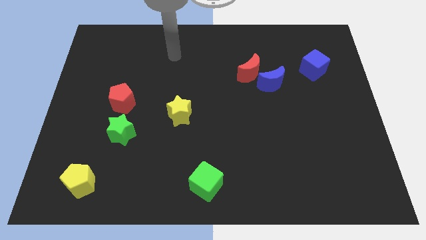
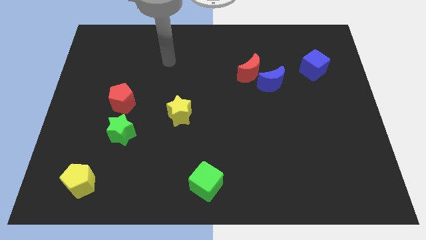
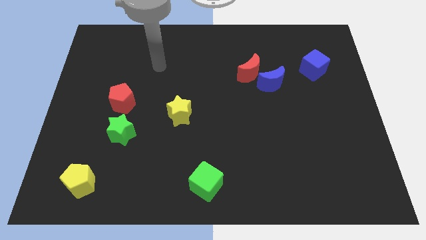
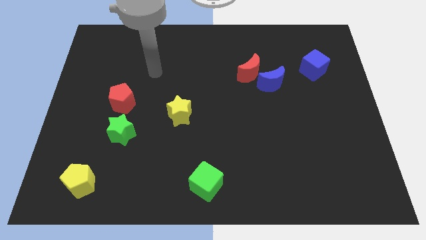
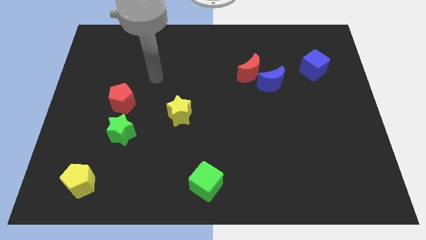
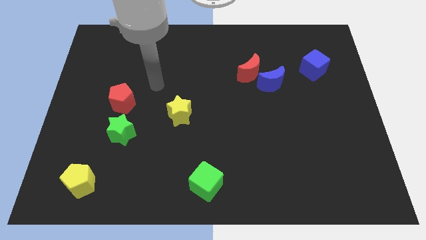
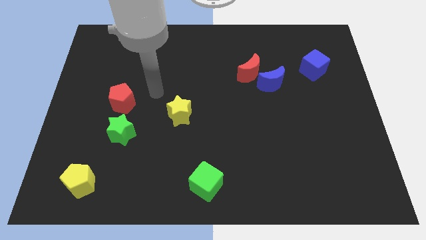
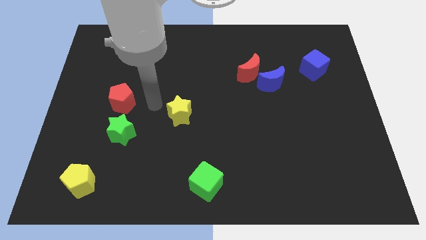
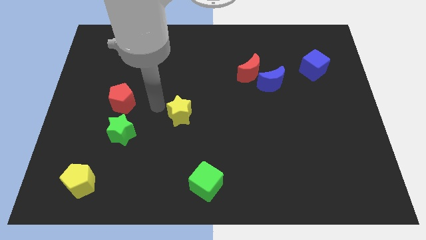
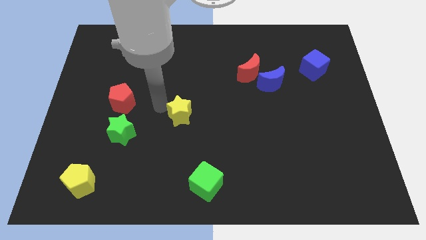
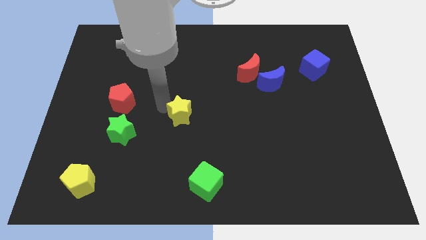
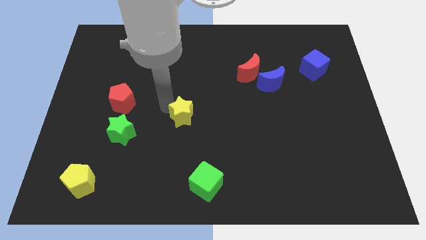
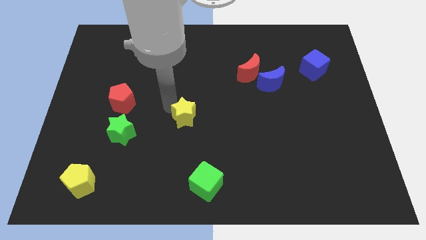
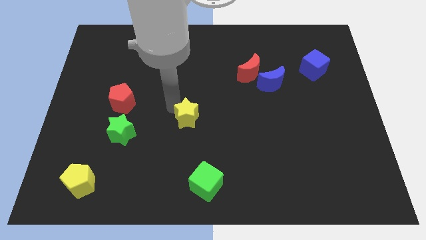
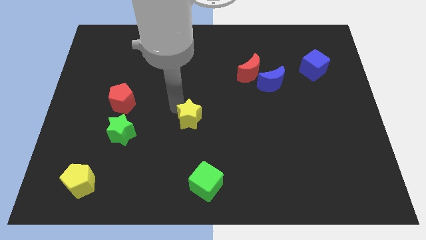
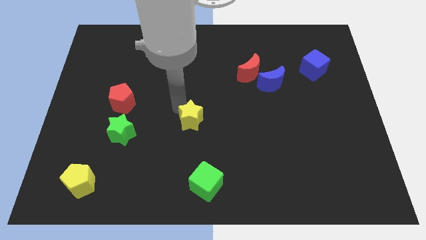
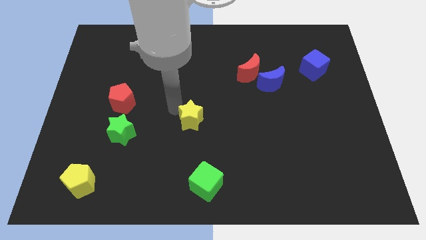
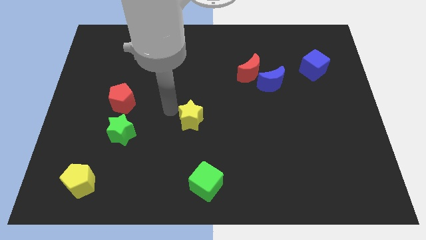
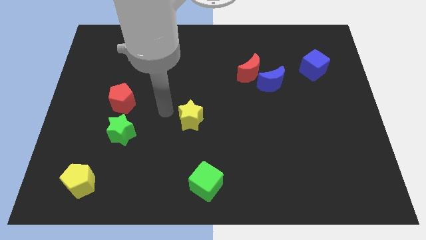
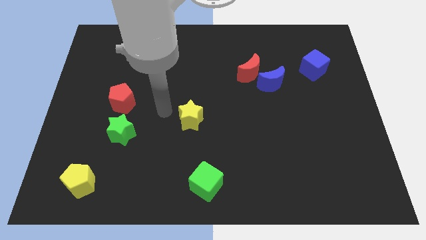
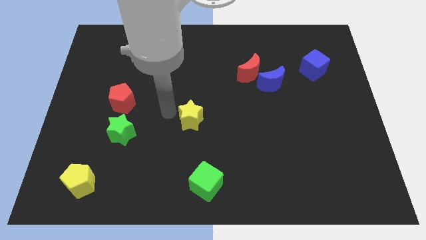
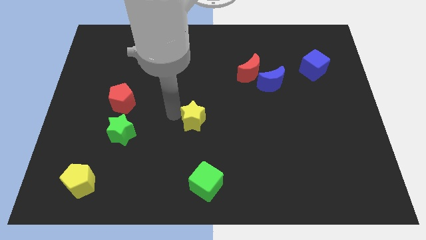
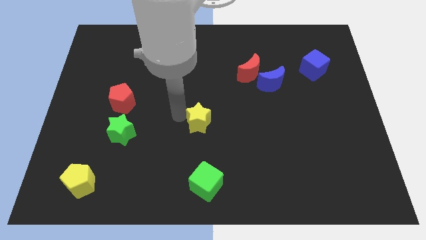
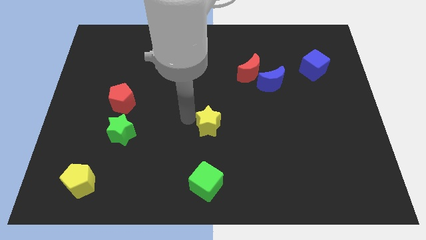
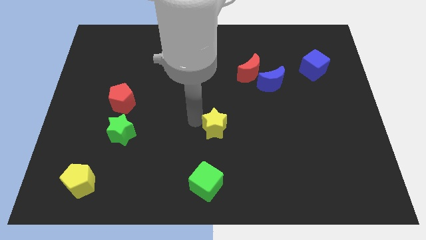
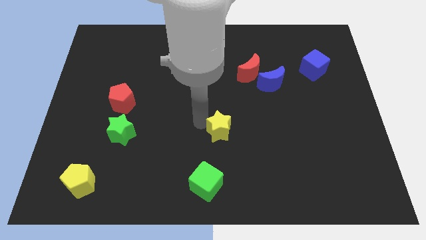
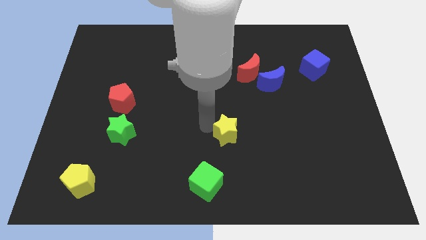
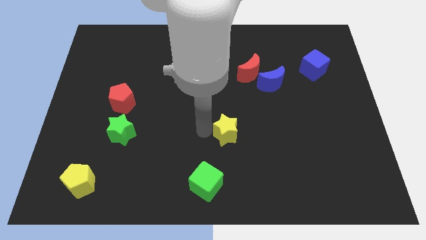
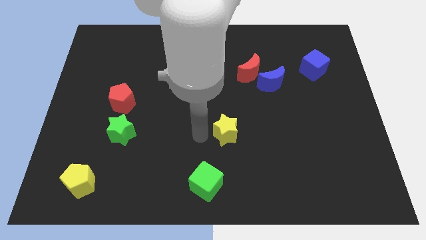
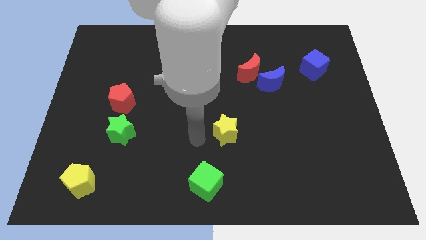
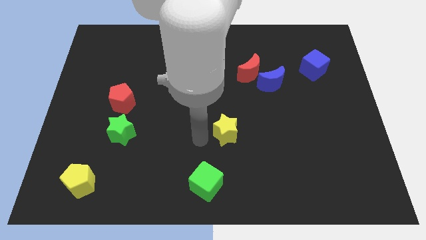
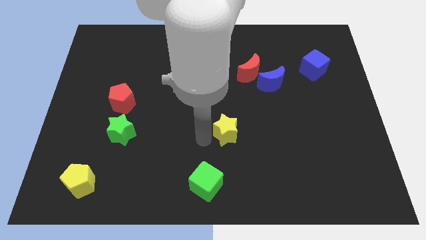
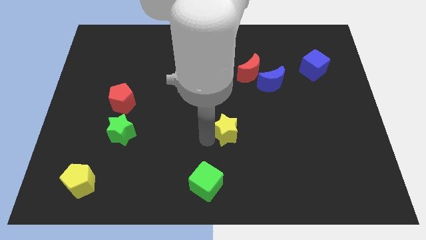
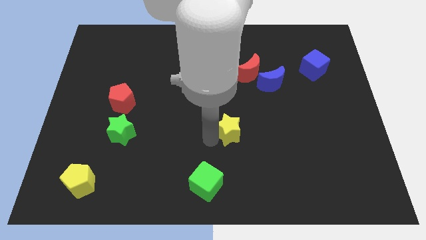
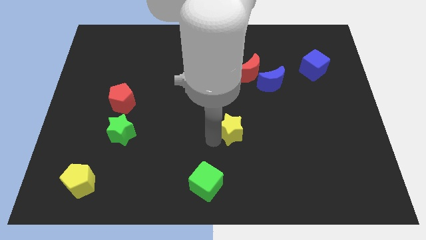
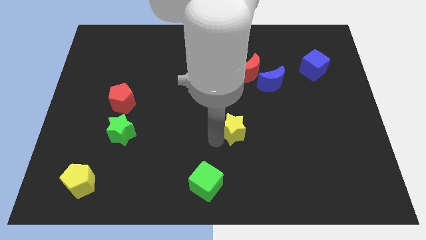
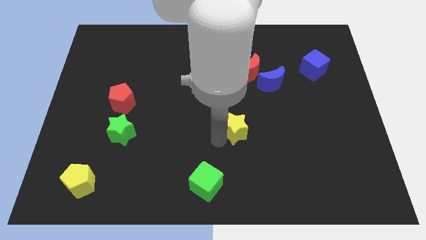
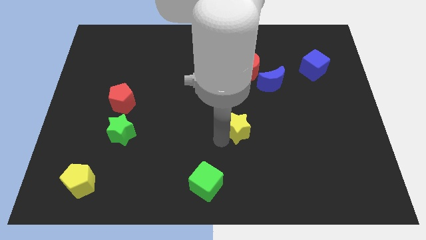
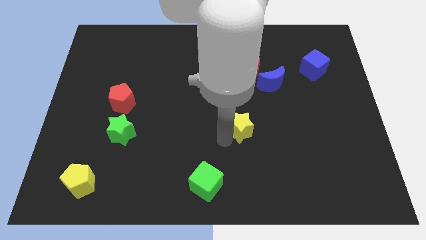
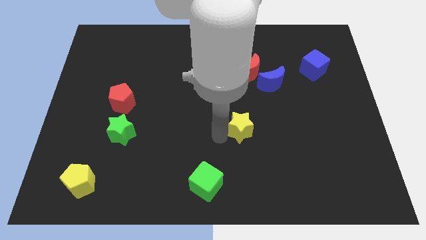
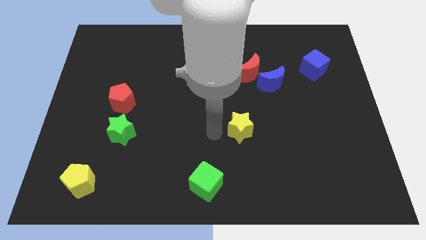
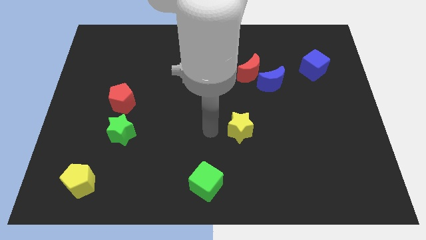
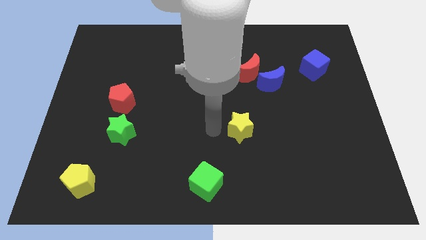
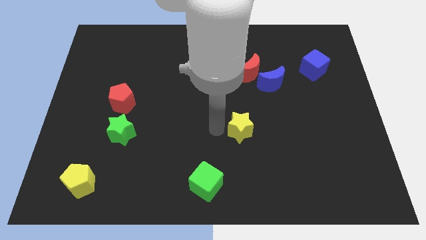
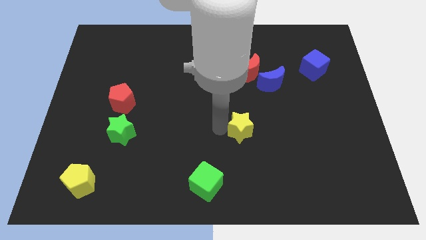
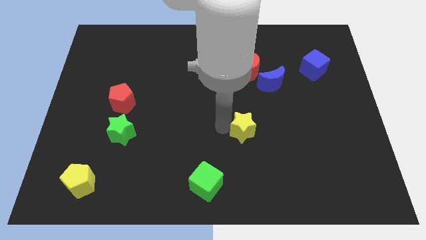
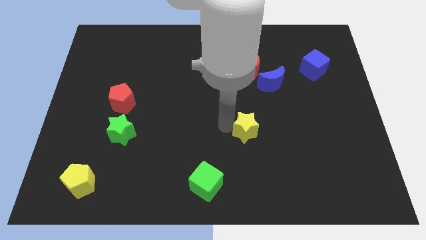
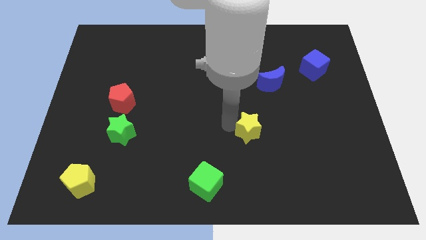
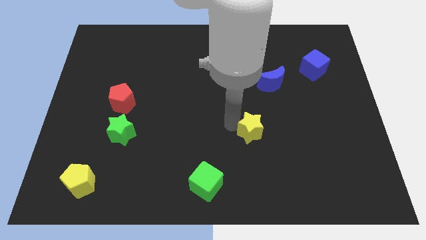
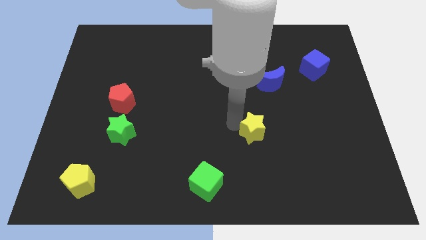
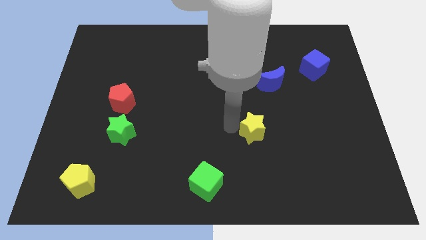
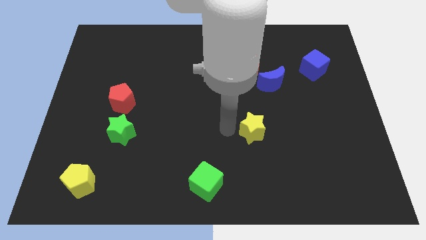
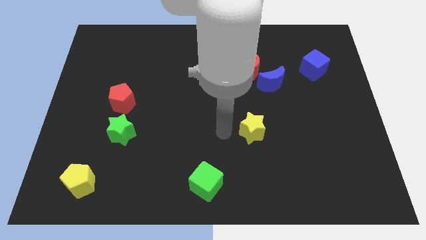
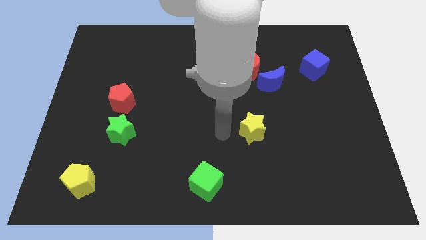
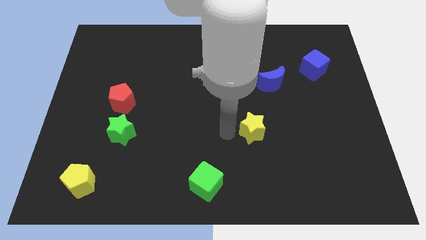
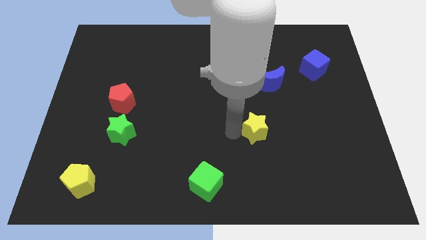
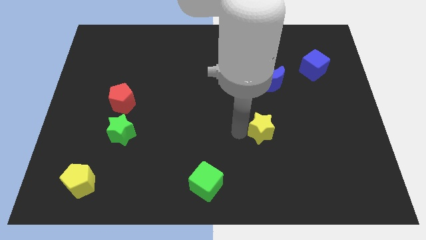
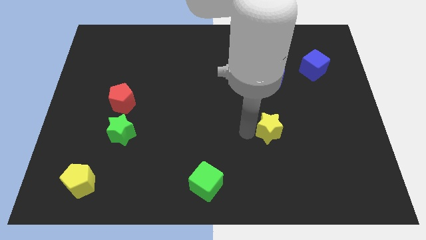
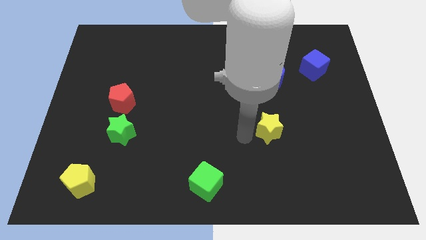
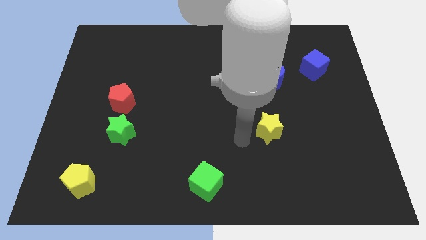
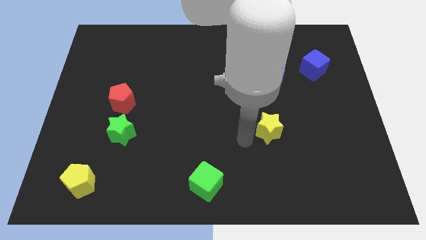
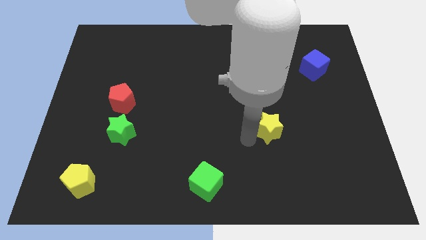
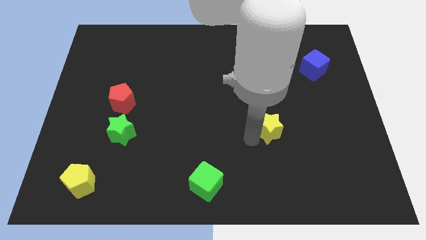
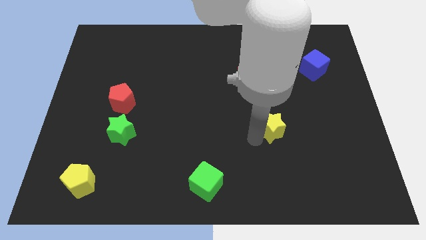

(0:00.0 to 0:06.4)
slide the yellow star right

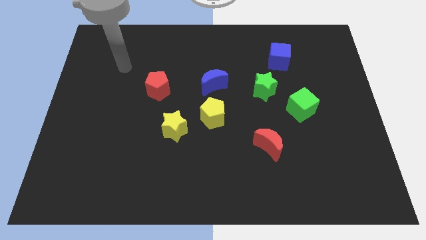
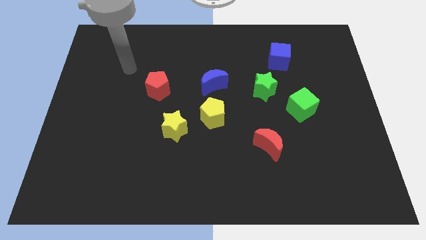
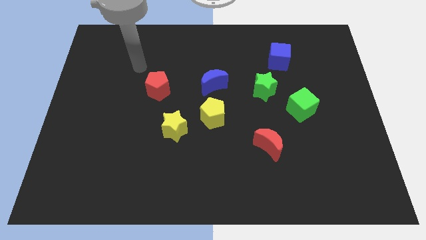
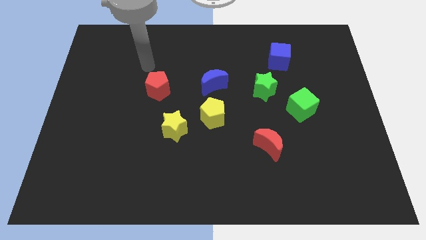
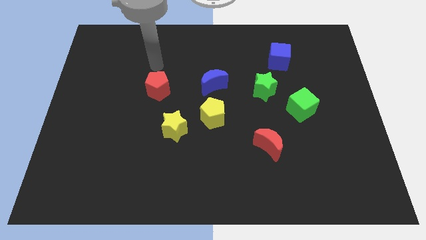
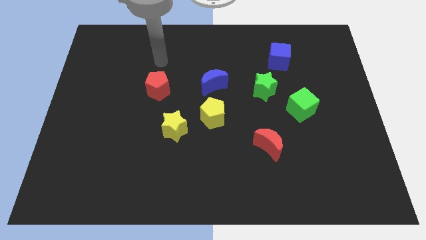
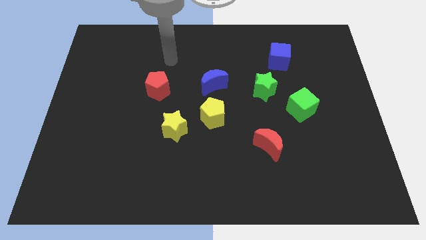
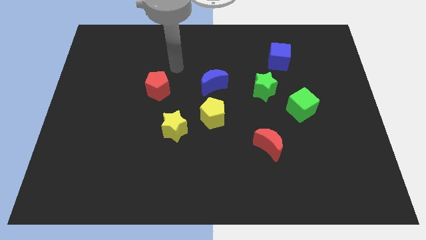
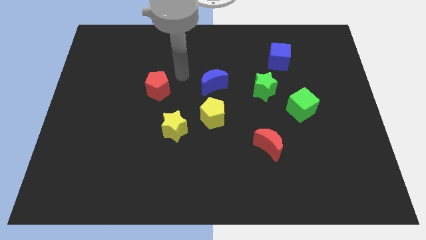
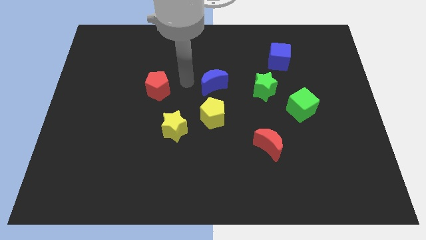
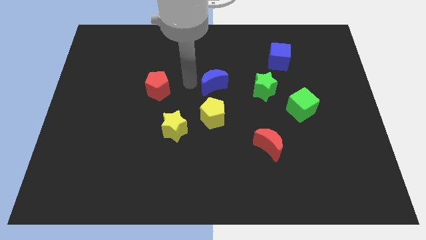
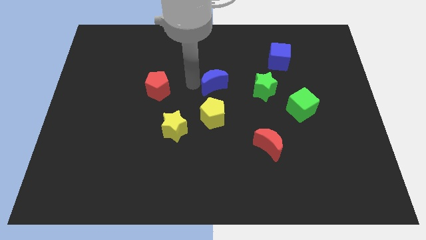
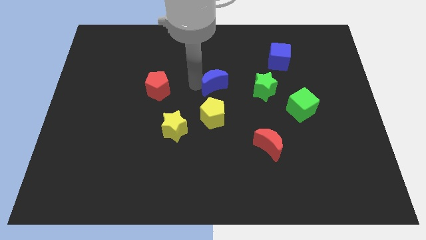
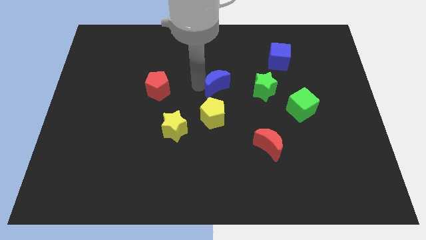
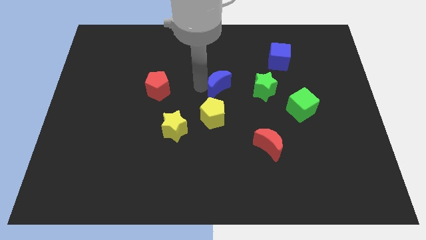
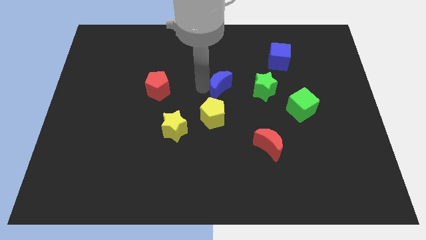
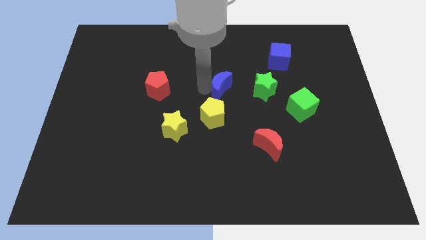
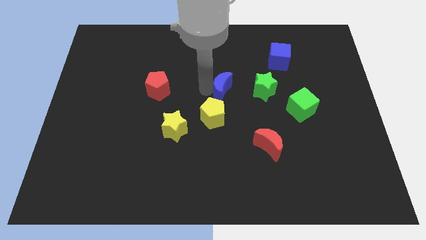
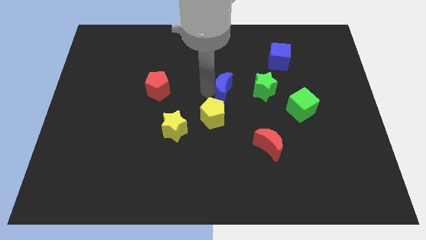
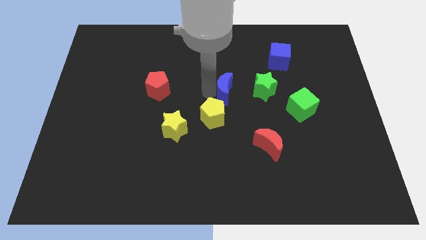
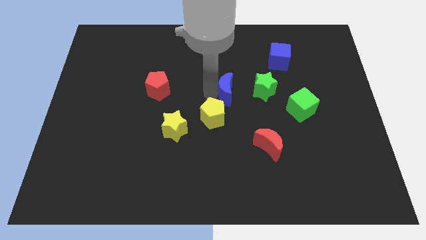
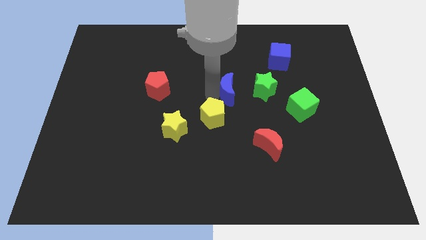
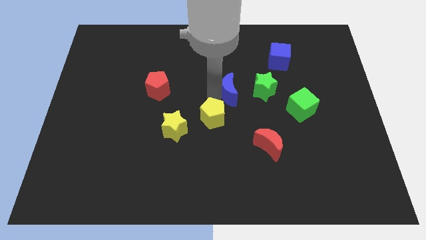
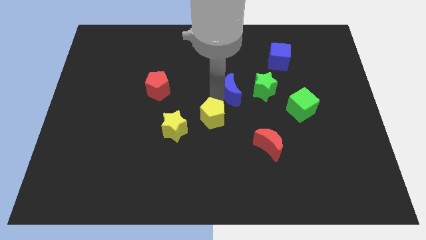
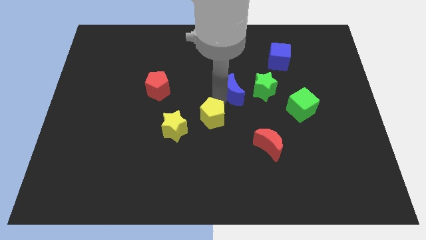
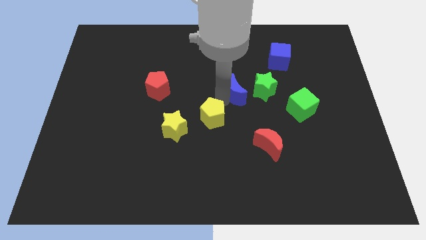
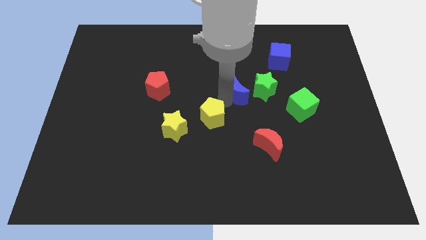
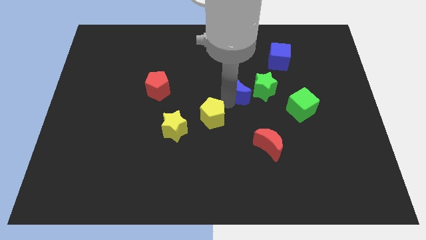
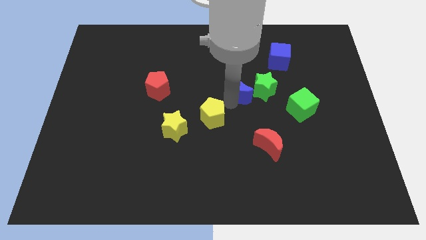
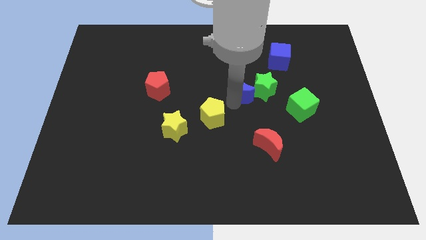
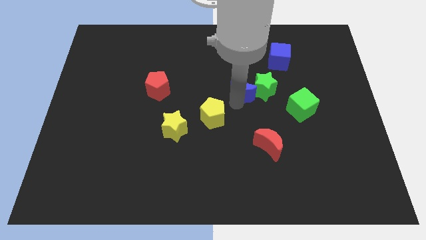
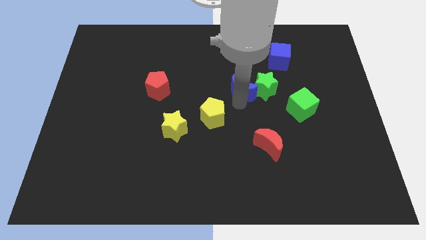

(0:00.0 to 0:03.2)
push the blue moon right a little
